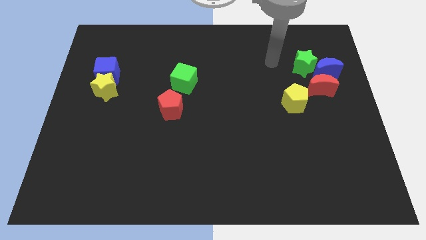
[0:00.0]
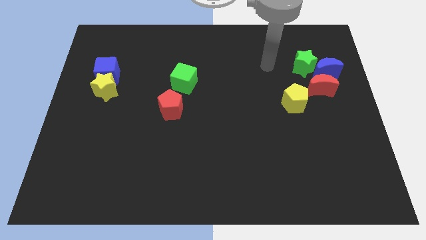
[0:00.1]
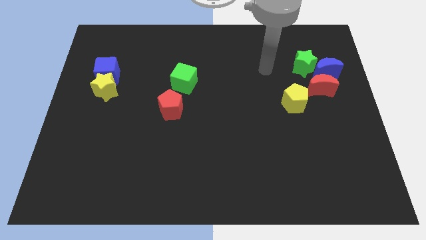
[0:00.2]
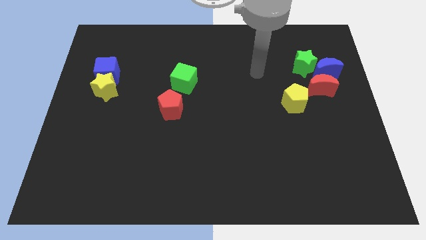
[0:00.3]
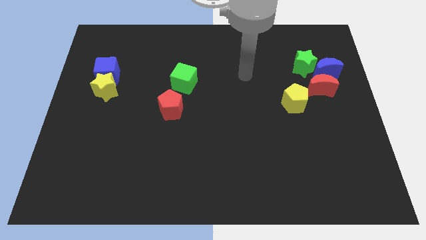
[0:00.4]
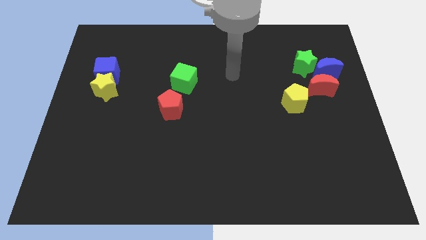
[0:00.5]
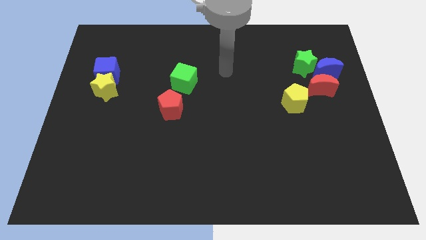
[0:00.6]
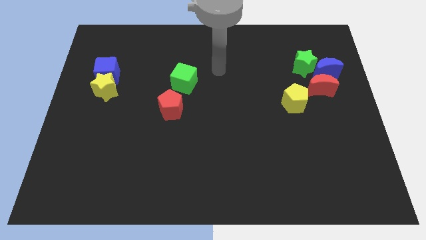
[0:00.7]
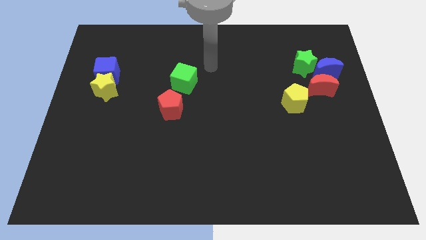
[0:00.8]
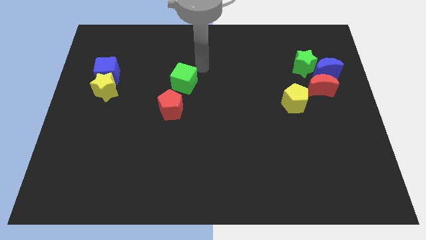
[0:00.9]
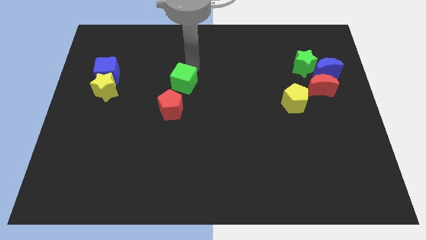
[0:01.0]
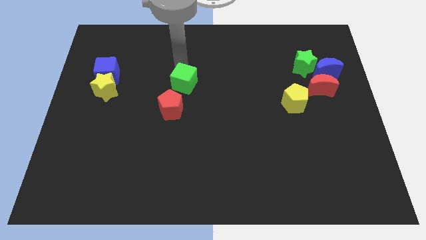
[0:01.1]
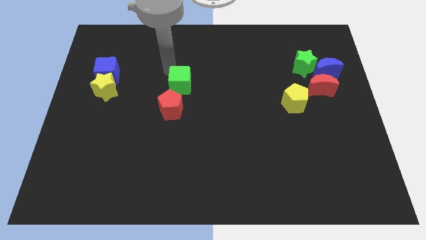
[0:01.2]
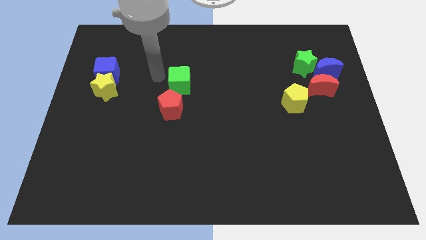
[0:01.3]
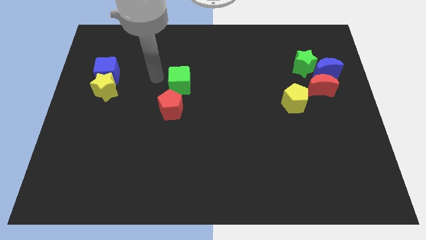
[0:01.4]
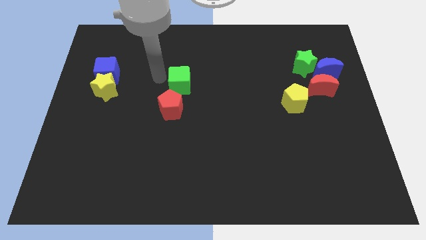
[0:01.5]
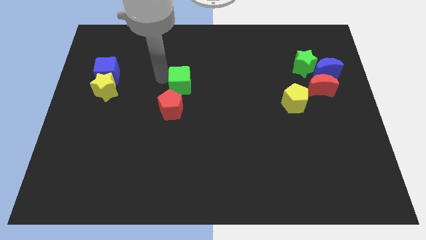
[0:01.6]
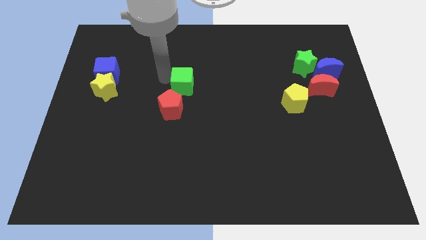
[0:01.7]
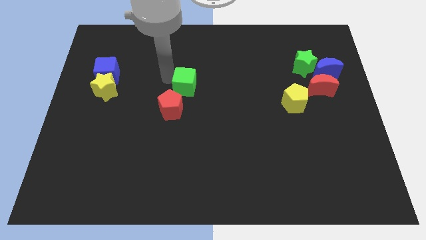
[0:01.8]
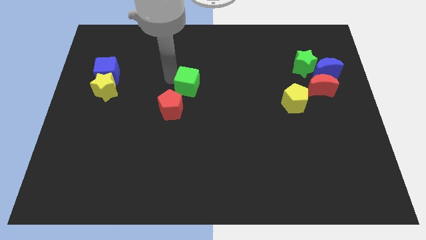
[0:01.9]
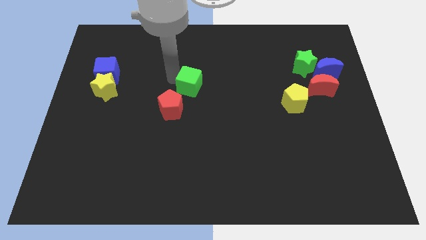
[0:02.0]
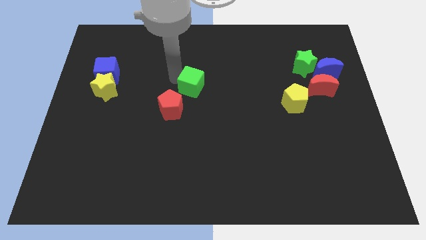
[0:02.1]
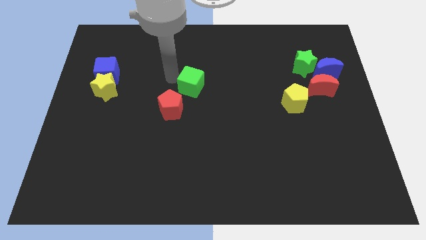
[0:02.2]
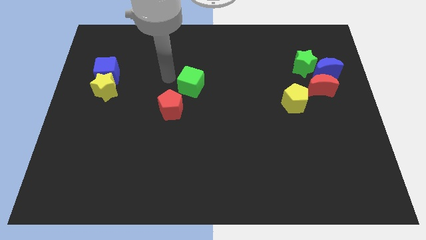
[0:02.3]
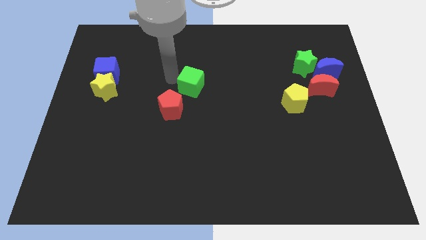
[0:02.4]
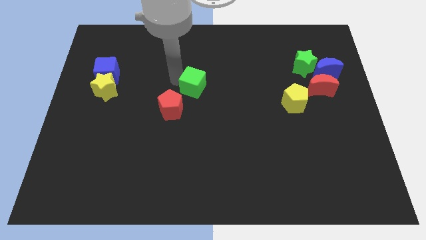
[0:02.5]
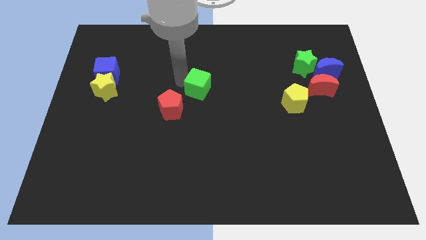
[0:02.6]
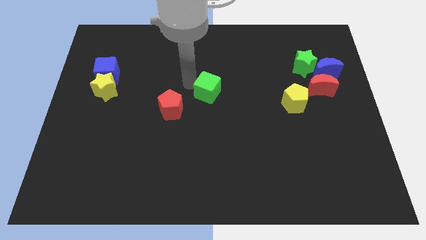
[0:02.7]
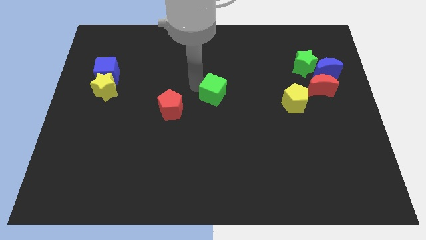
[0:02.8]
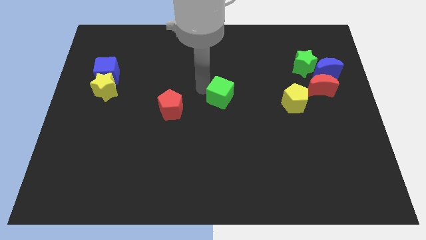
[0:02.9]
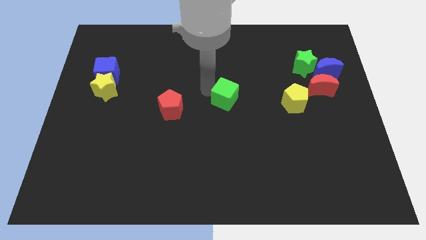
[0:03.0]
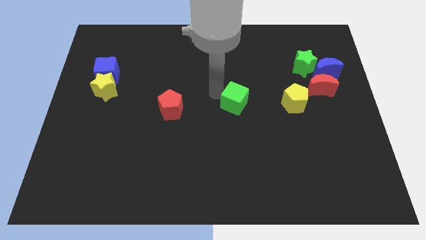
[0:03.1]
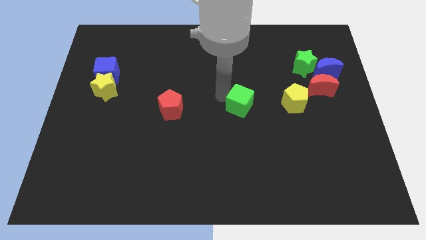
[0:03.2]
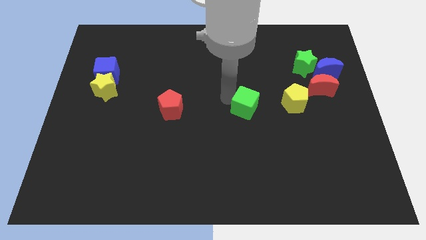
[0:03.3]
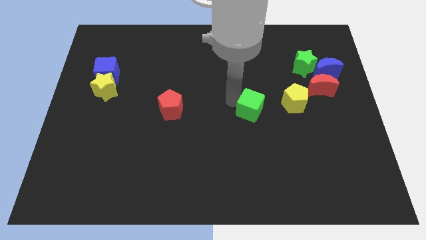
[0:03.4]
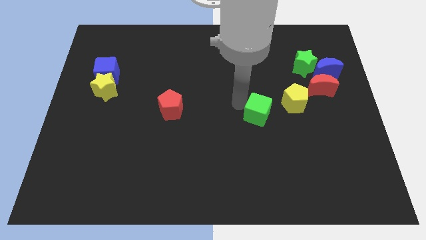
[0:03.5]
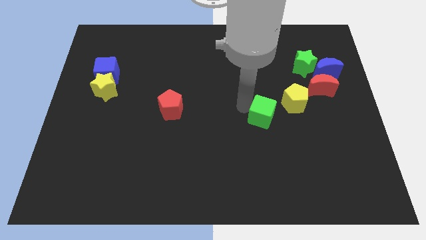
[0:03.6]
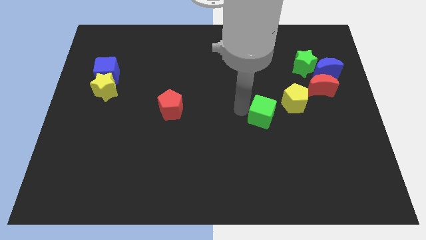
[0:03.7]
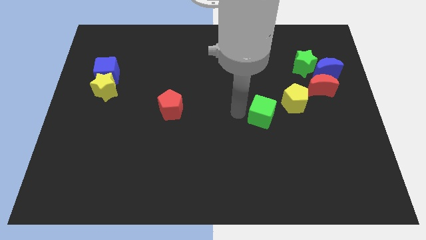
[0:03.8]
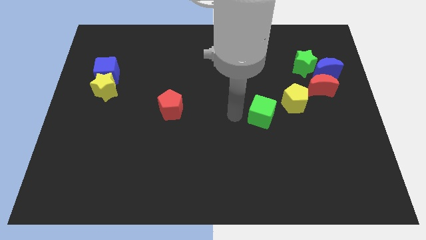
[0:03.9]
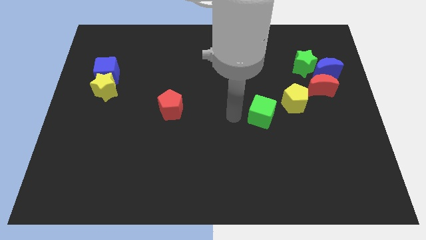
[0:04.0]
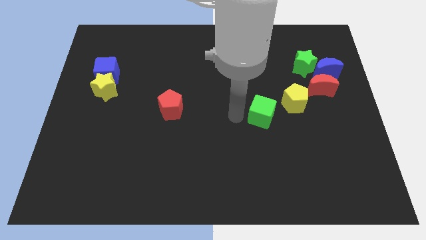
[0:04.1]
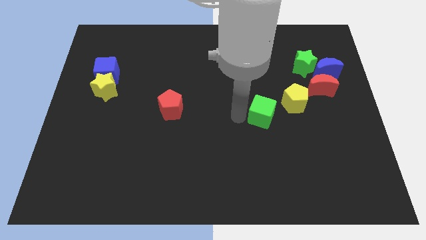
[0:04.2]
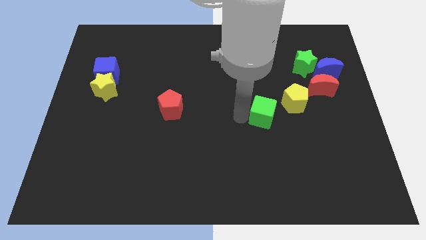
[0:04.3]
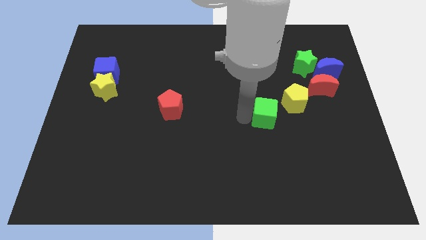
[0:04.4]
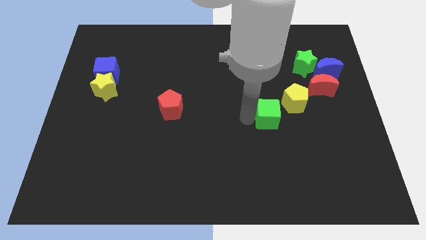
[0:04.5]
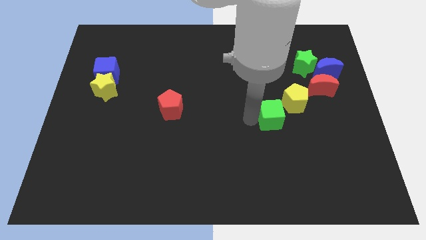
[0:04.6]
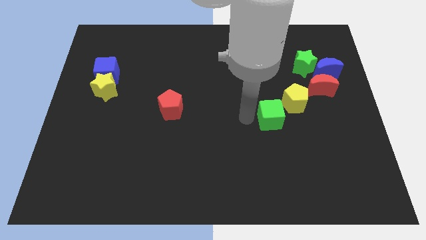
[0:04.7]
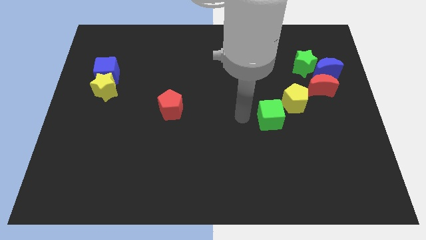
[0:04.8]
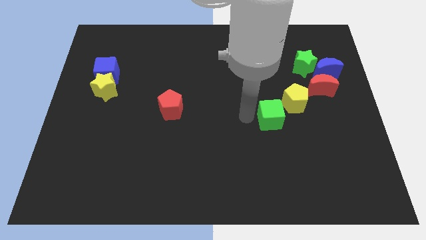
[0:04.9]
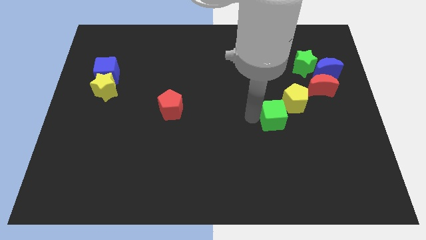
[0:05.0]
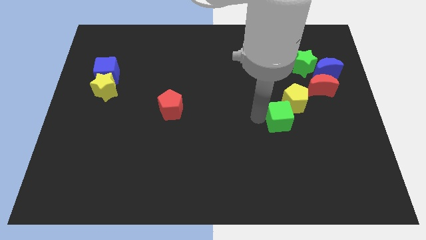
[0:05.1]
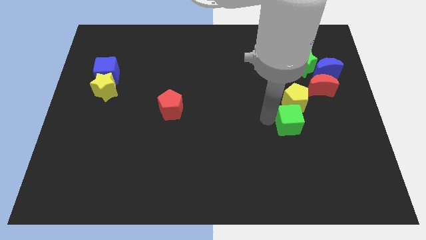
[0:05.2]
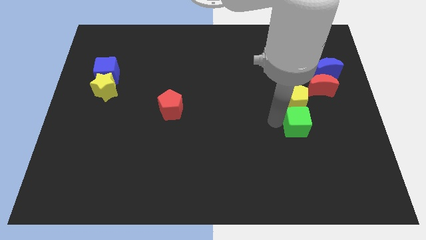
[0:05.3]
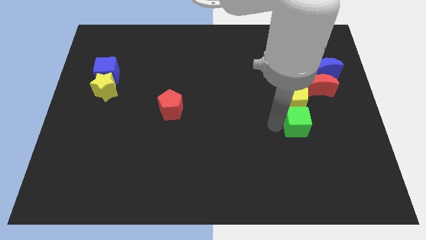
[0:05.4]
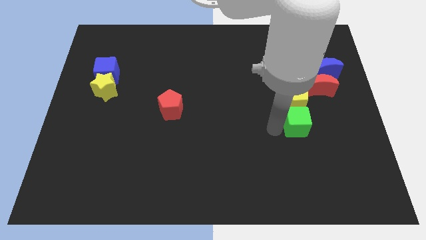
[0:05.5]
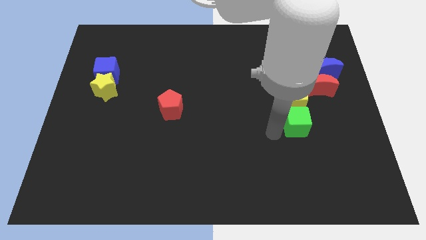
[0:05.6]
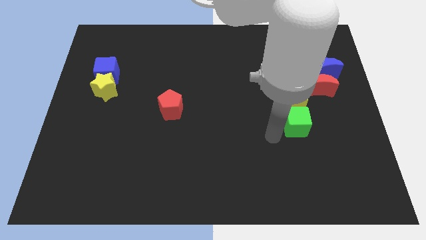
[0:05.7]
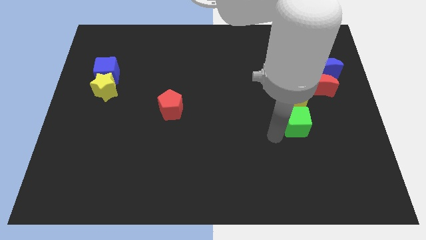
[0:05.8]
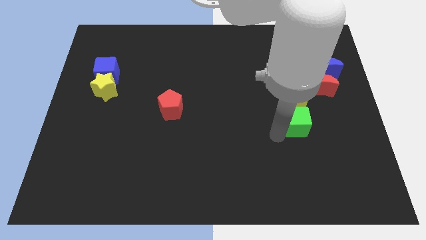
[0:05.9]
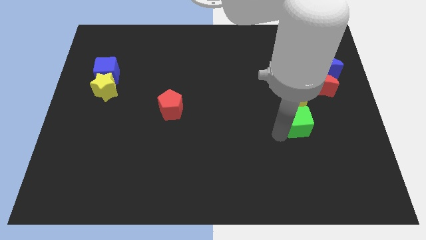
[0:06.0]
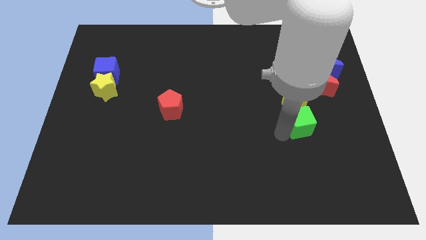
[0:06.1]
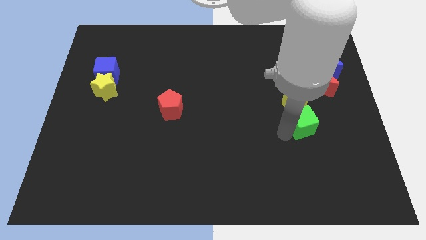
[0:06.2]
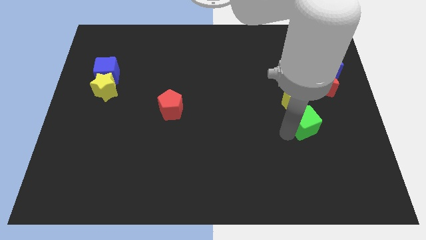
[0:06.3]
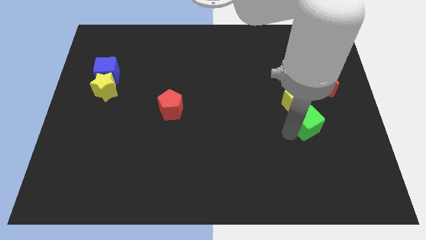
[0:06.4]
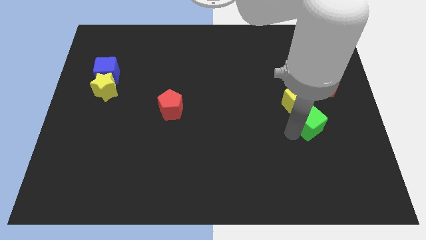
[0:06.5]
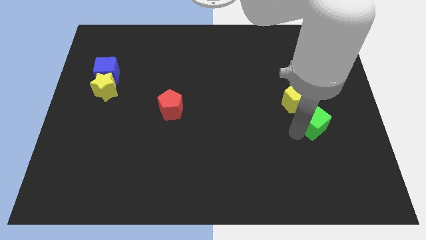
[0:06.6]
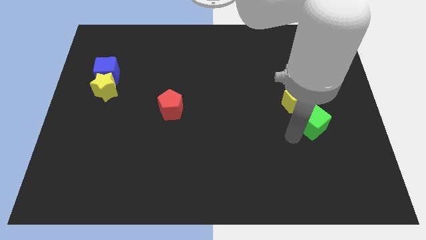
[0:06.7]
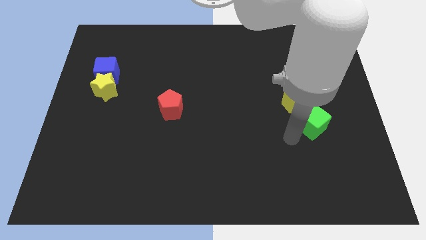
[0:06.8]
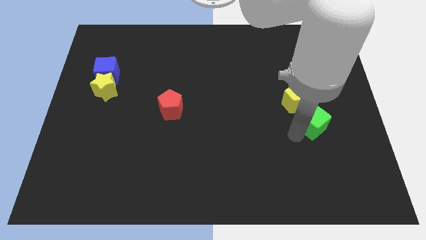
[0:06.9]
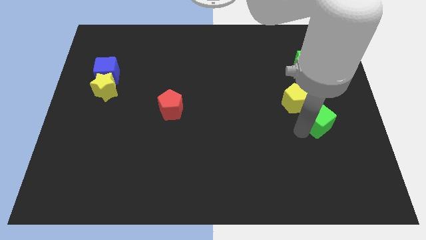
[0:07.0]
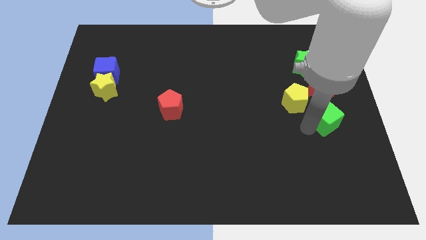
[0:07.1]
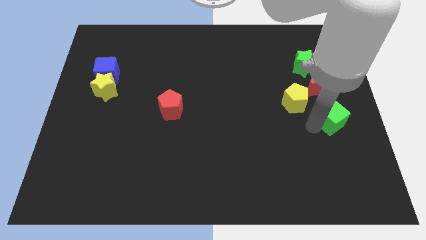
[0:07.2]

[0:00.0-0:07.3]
push the green cube to the right side of the board
